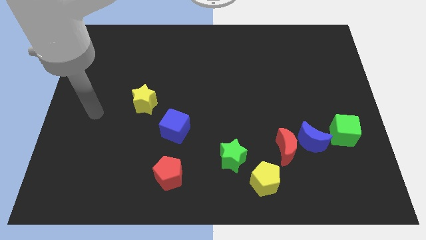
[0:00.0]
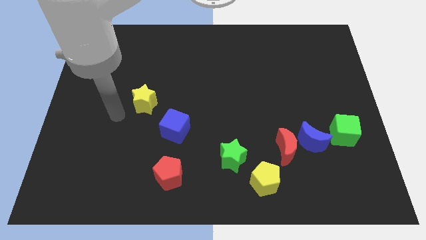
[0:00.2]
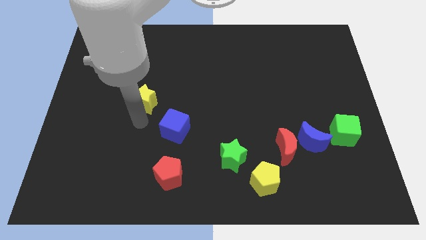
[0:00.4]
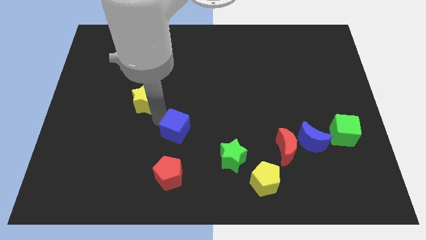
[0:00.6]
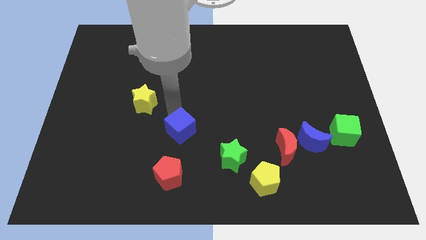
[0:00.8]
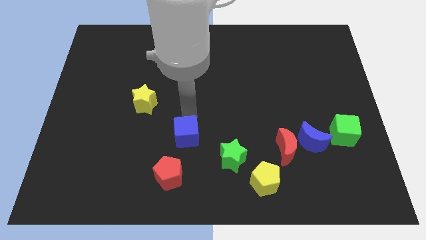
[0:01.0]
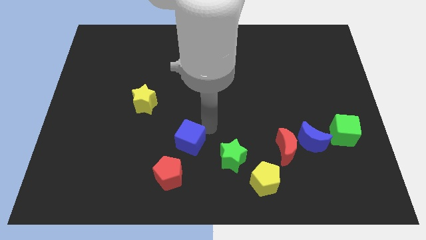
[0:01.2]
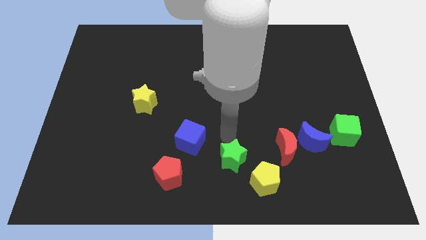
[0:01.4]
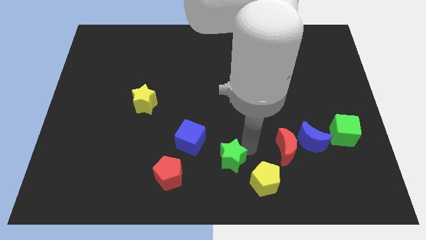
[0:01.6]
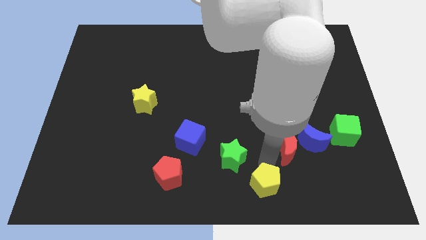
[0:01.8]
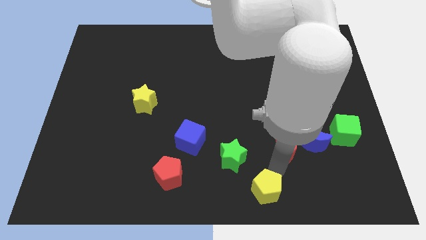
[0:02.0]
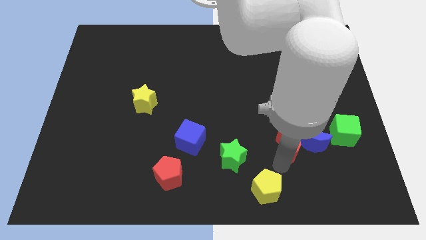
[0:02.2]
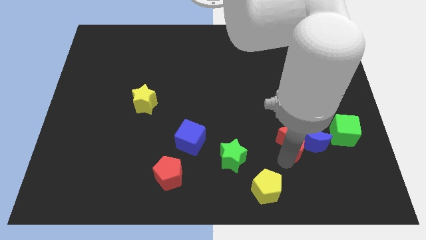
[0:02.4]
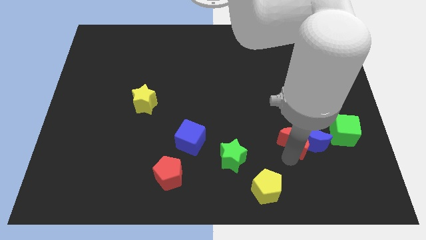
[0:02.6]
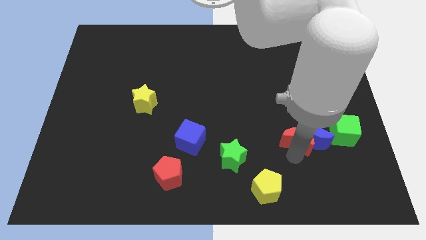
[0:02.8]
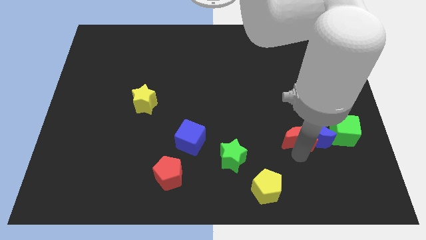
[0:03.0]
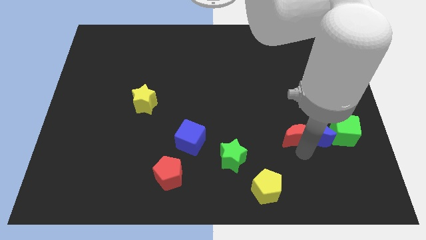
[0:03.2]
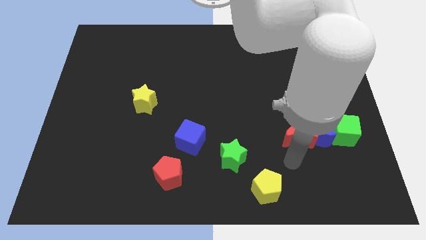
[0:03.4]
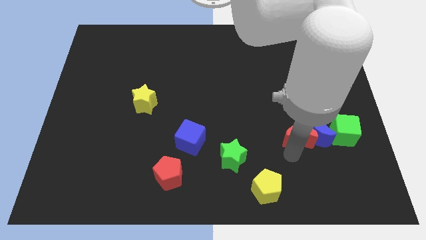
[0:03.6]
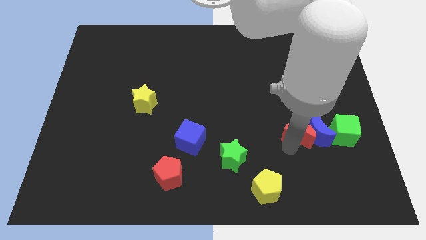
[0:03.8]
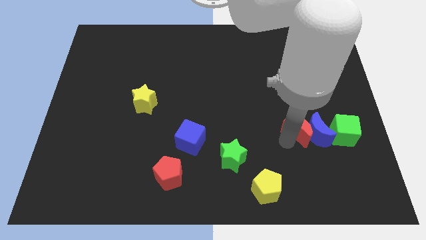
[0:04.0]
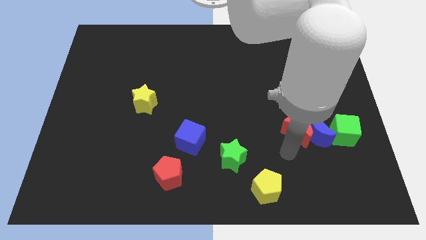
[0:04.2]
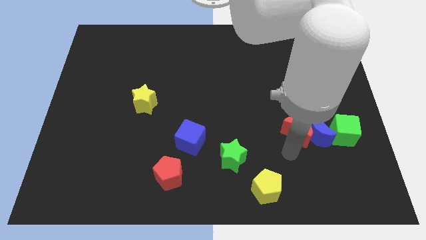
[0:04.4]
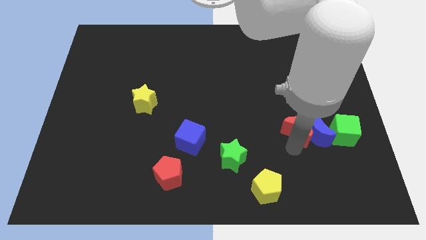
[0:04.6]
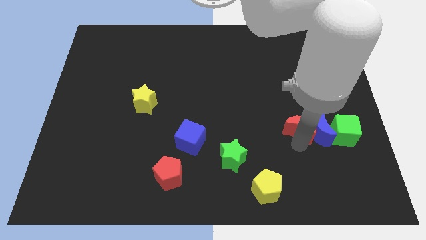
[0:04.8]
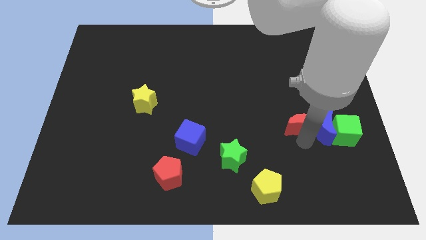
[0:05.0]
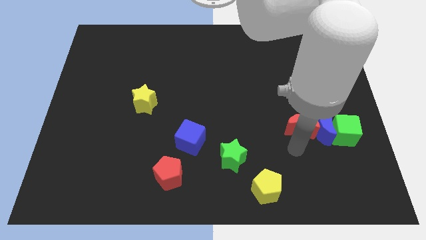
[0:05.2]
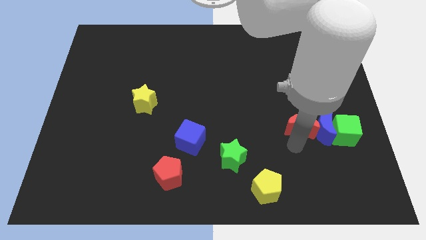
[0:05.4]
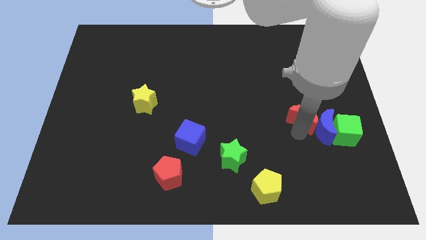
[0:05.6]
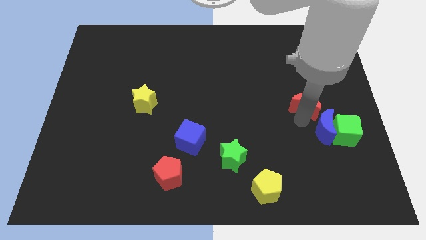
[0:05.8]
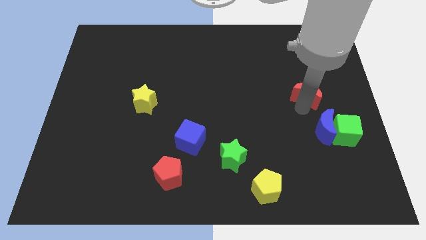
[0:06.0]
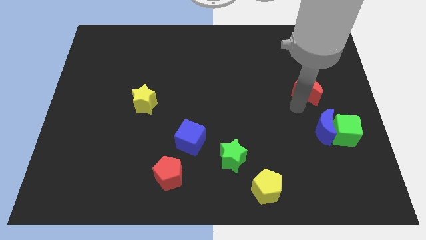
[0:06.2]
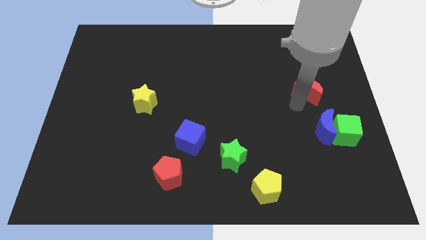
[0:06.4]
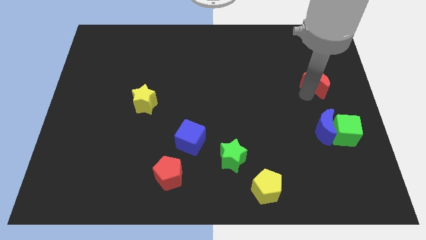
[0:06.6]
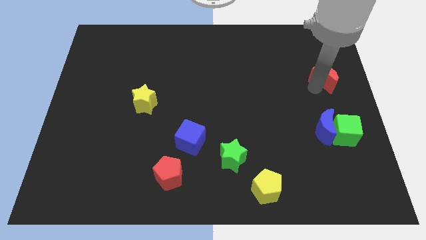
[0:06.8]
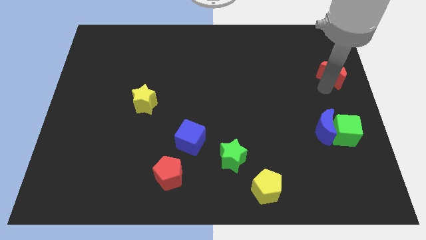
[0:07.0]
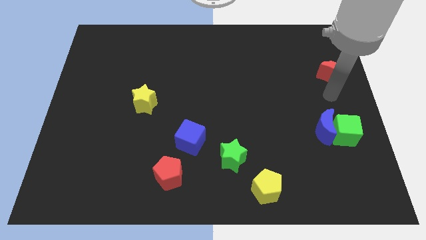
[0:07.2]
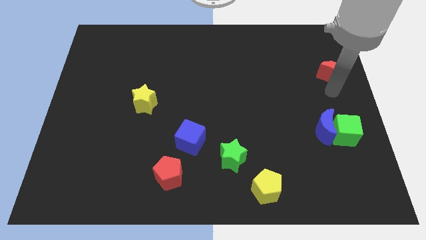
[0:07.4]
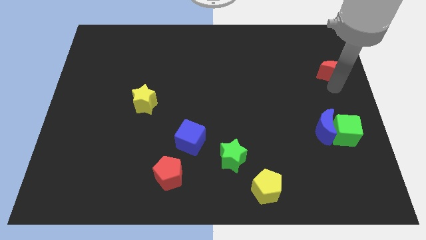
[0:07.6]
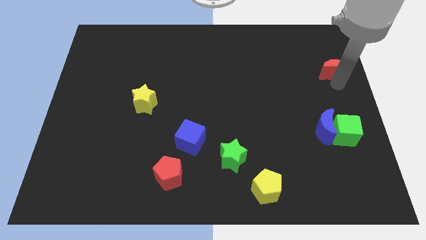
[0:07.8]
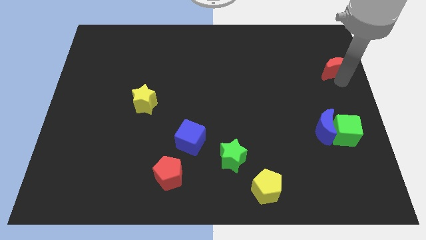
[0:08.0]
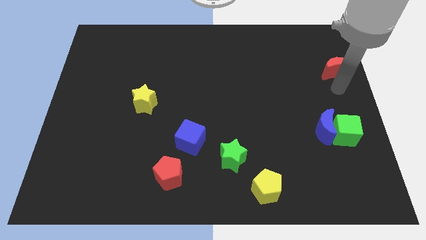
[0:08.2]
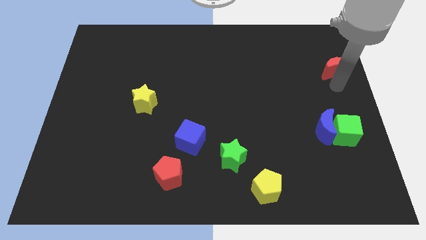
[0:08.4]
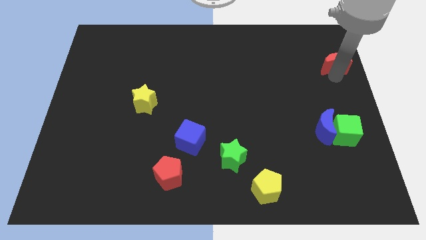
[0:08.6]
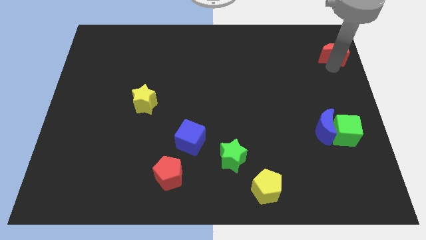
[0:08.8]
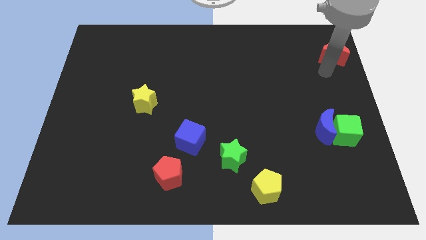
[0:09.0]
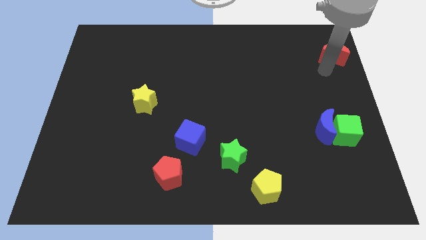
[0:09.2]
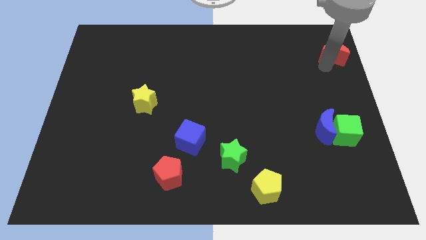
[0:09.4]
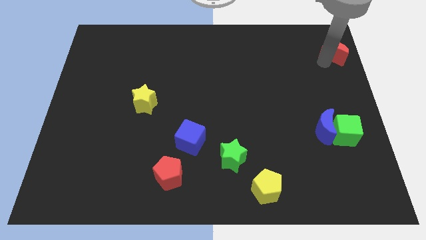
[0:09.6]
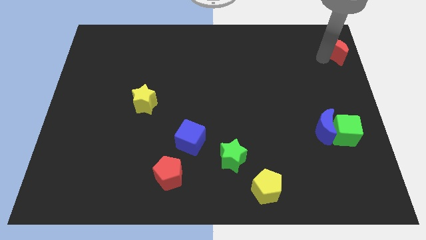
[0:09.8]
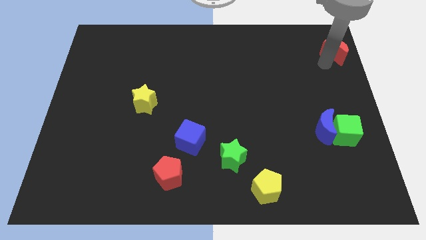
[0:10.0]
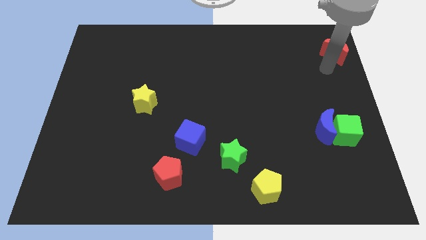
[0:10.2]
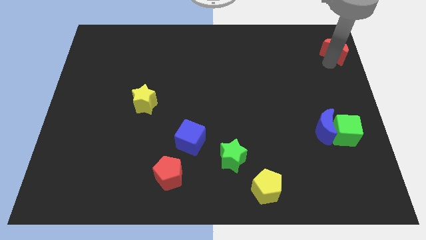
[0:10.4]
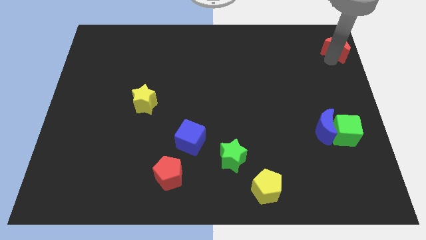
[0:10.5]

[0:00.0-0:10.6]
push the red moon to the upper right corner

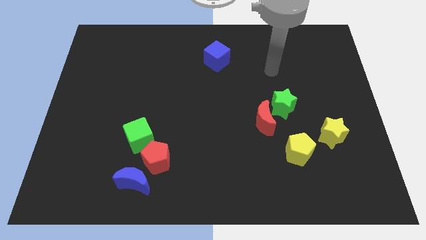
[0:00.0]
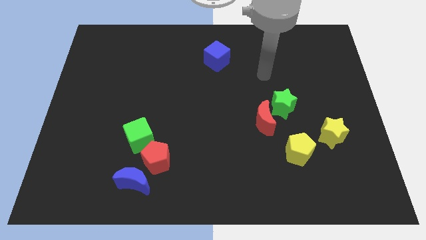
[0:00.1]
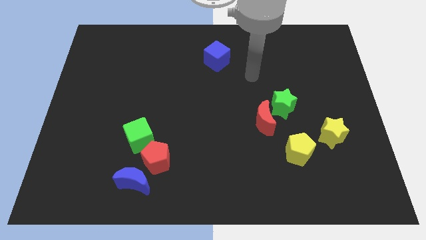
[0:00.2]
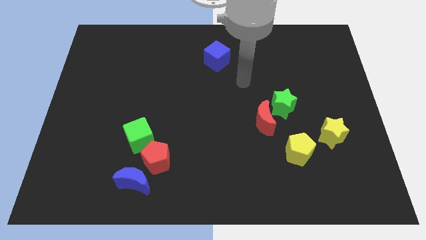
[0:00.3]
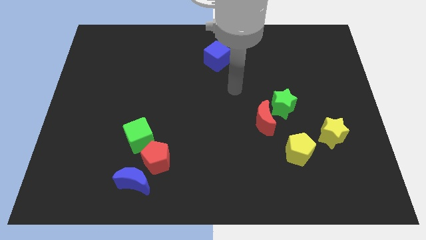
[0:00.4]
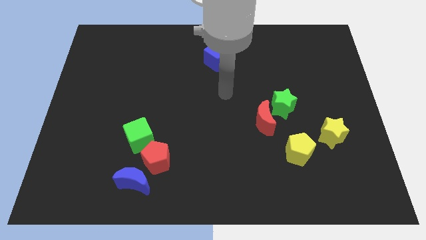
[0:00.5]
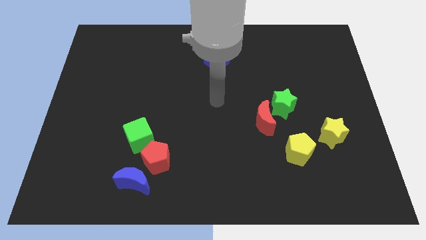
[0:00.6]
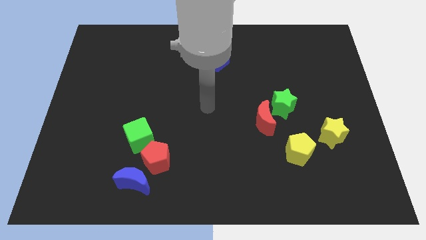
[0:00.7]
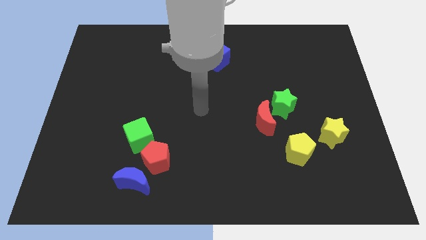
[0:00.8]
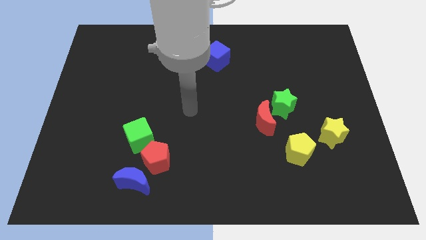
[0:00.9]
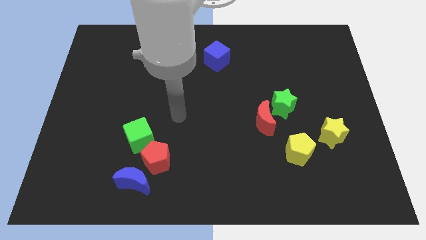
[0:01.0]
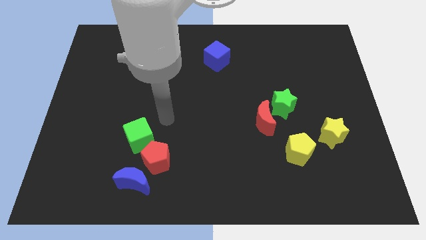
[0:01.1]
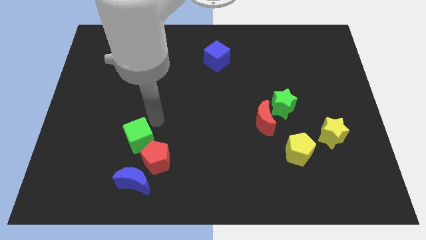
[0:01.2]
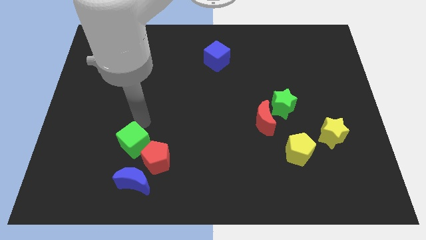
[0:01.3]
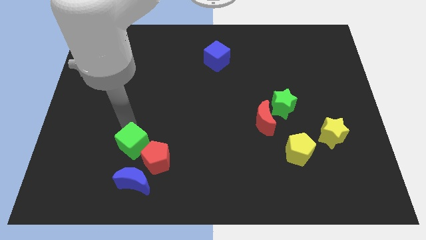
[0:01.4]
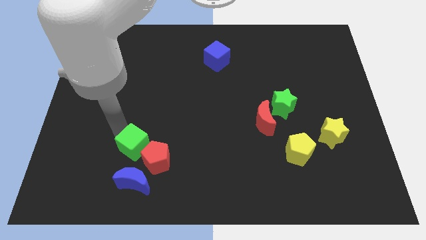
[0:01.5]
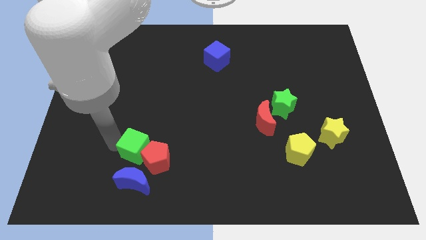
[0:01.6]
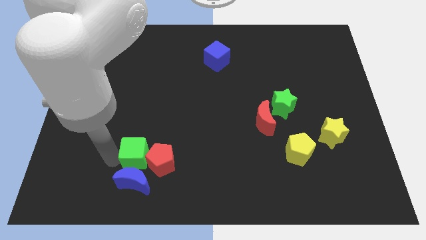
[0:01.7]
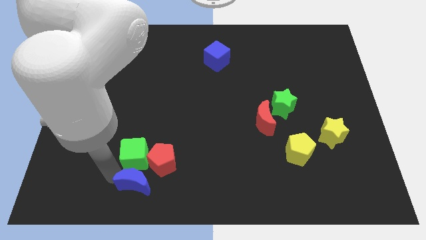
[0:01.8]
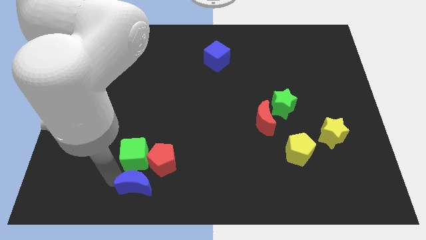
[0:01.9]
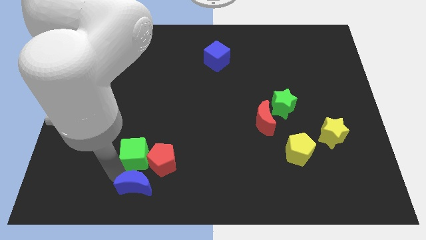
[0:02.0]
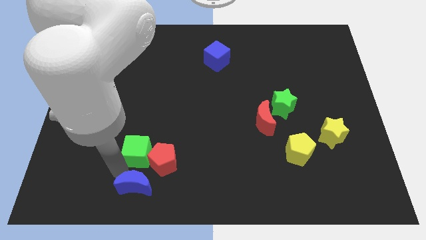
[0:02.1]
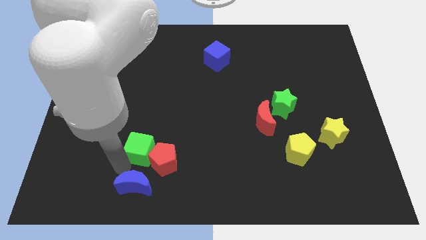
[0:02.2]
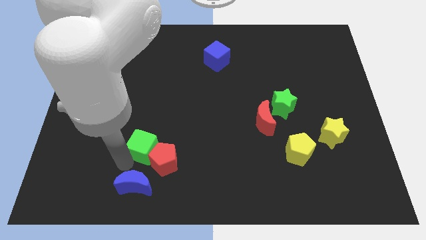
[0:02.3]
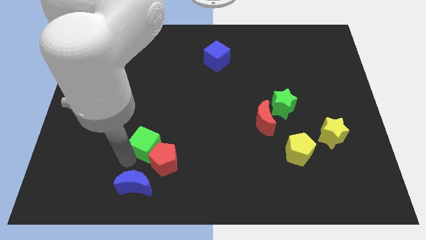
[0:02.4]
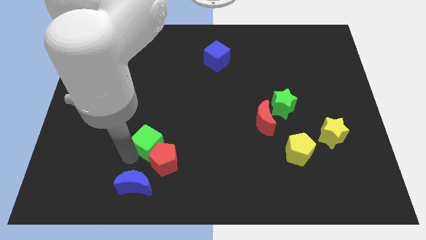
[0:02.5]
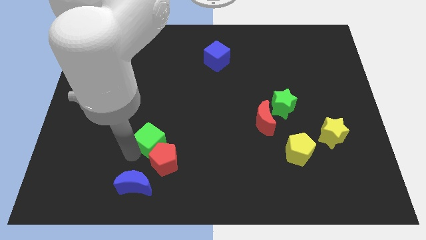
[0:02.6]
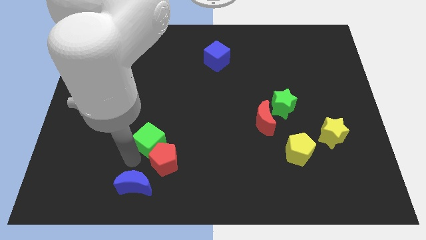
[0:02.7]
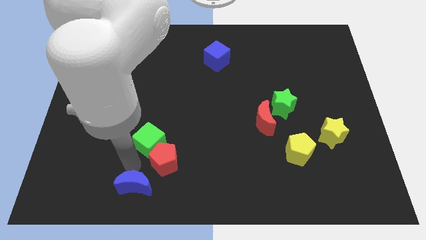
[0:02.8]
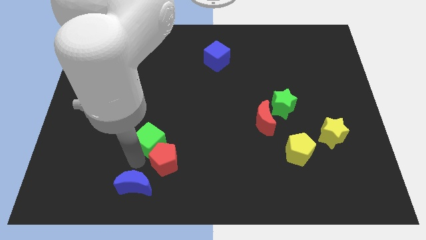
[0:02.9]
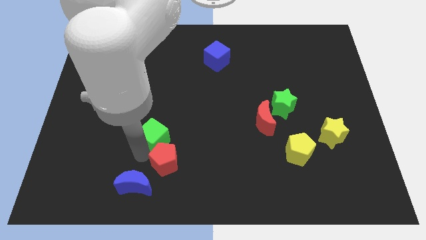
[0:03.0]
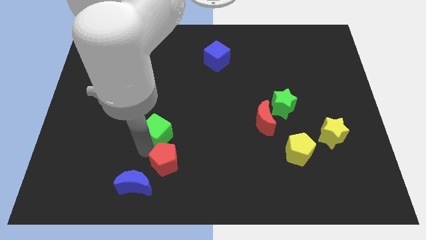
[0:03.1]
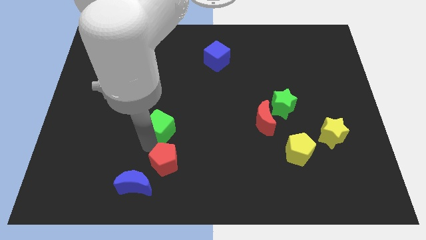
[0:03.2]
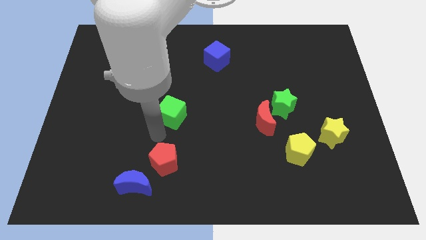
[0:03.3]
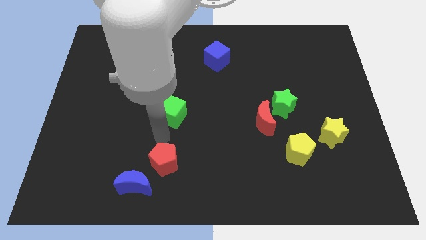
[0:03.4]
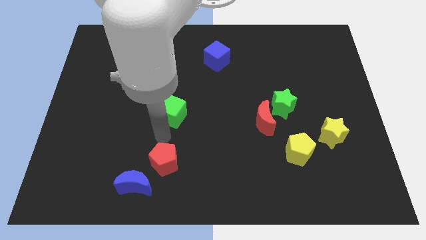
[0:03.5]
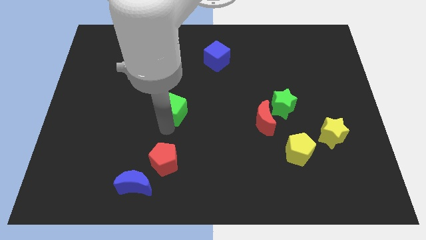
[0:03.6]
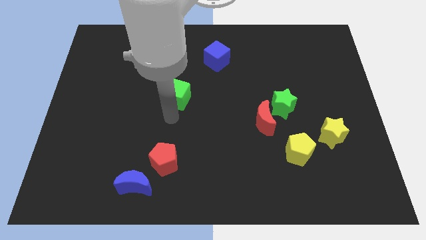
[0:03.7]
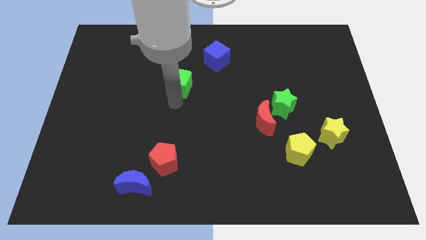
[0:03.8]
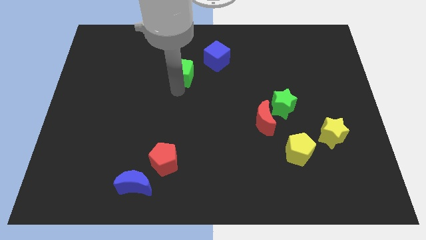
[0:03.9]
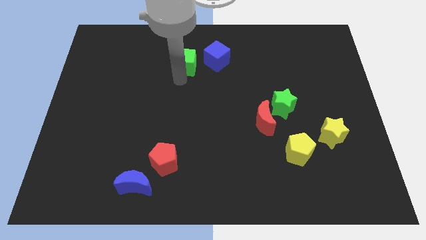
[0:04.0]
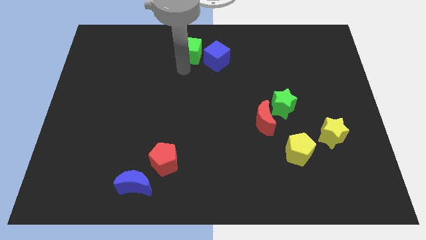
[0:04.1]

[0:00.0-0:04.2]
move the green cube to the top side
